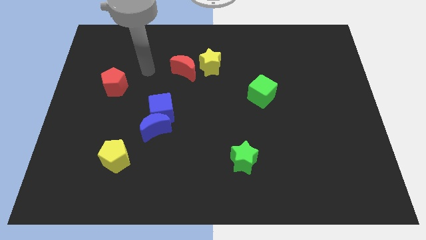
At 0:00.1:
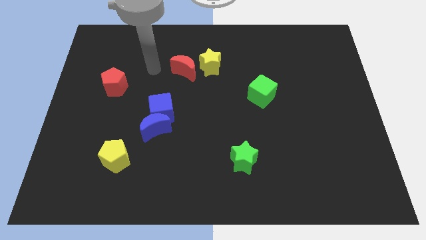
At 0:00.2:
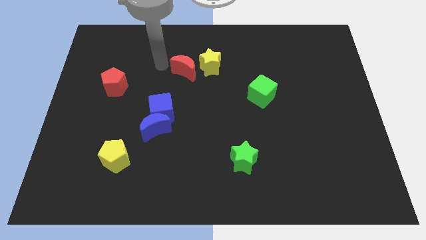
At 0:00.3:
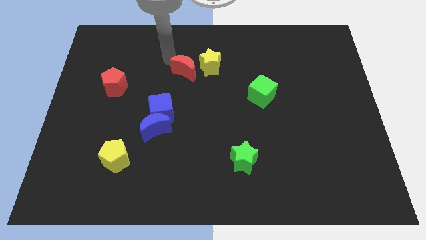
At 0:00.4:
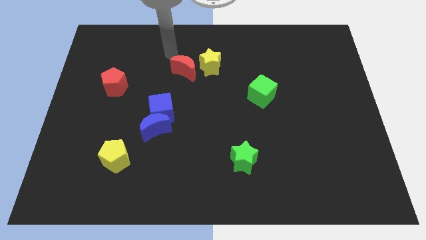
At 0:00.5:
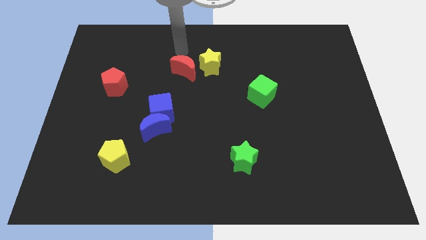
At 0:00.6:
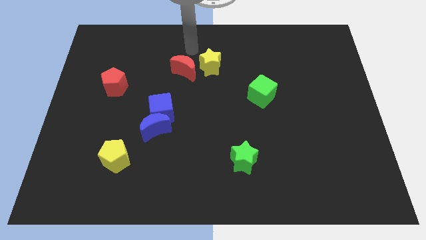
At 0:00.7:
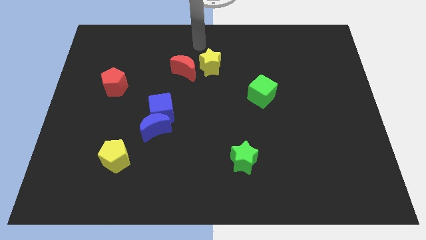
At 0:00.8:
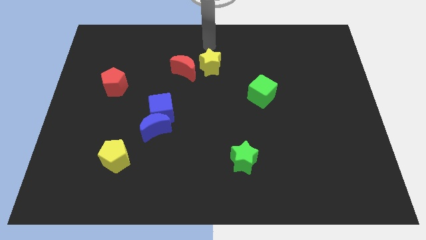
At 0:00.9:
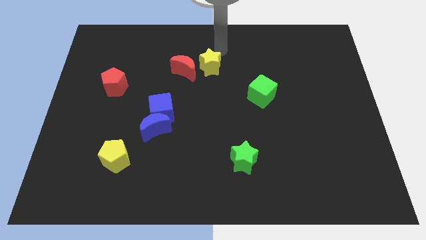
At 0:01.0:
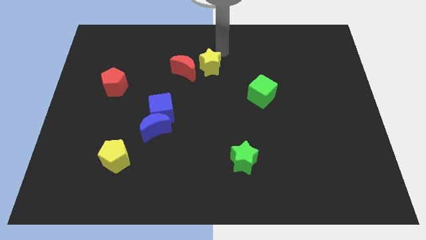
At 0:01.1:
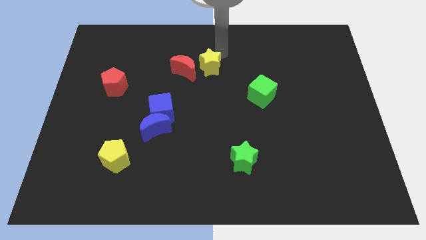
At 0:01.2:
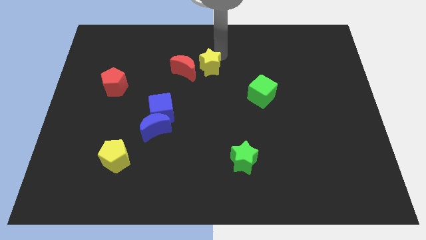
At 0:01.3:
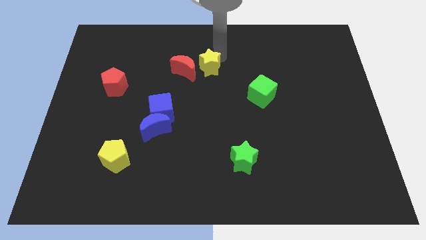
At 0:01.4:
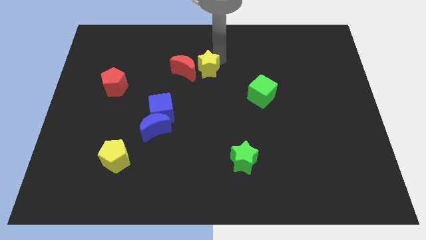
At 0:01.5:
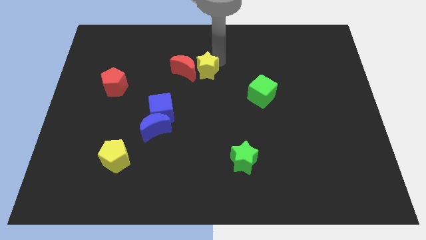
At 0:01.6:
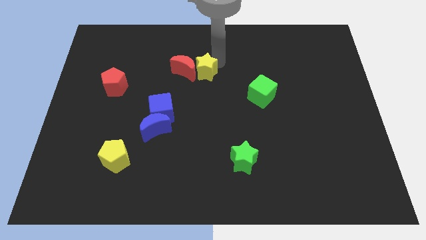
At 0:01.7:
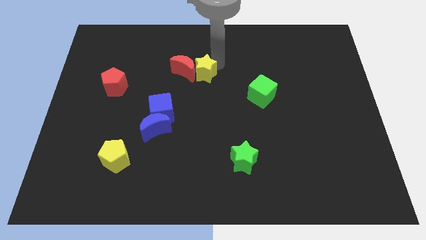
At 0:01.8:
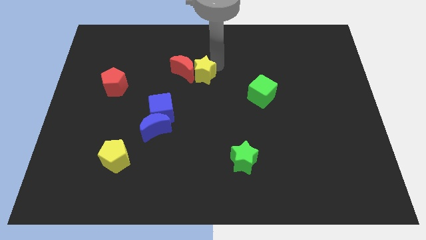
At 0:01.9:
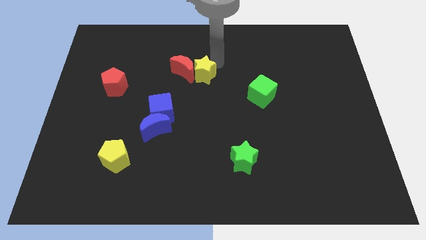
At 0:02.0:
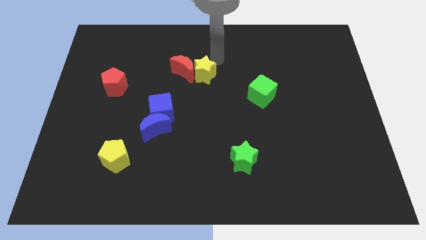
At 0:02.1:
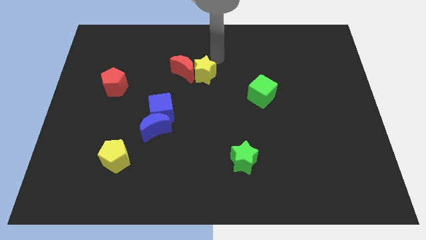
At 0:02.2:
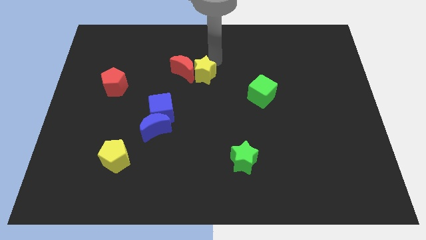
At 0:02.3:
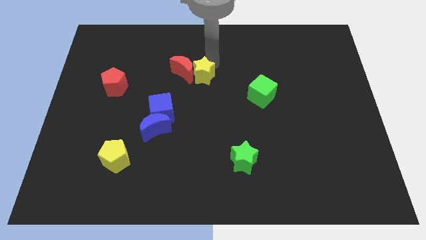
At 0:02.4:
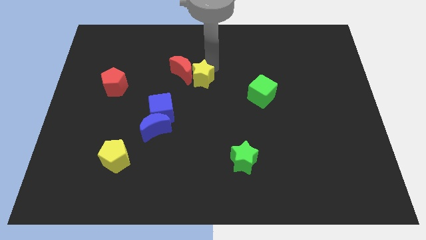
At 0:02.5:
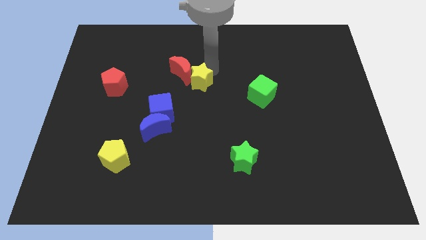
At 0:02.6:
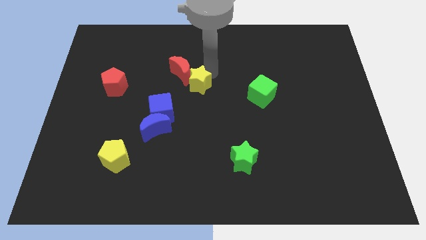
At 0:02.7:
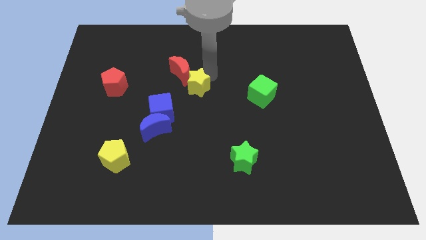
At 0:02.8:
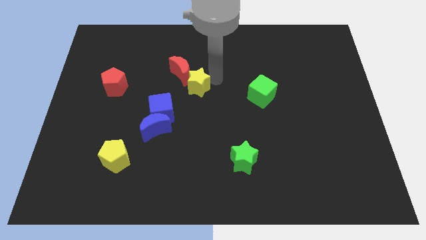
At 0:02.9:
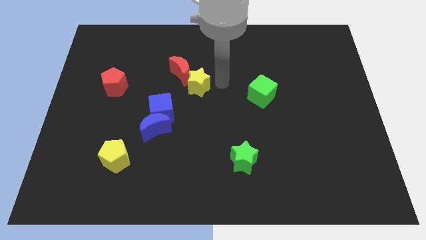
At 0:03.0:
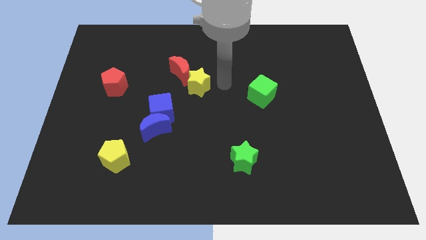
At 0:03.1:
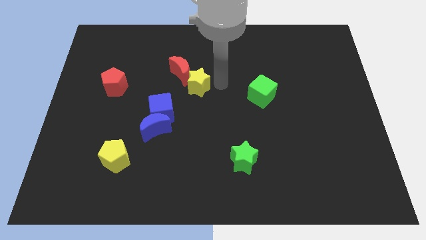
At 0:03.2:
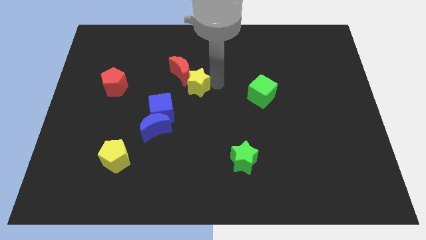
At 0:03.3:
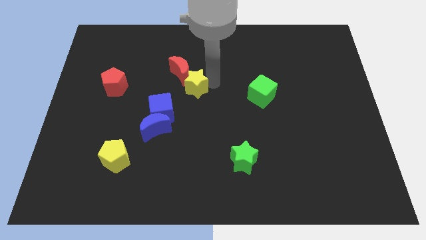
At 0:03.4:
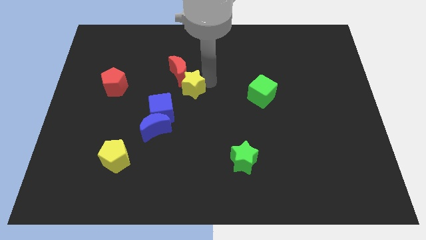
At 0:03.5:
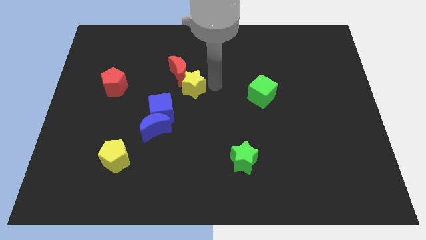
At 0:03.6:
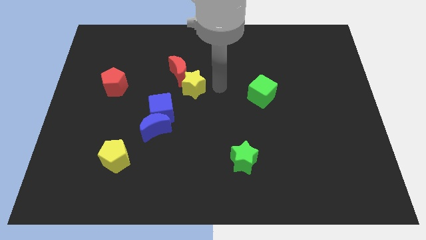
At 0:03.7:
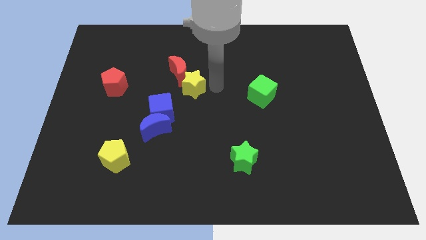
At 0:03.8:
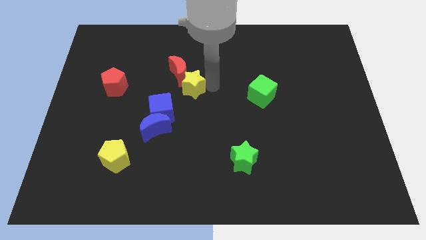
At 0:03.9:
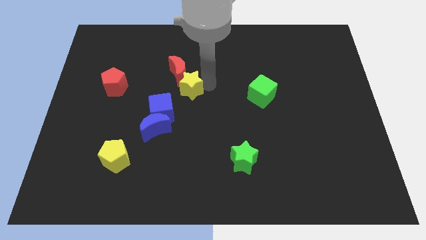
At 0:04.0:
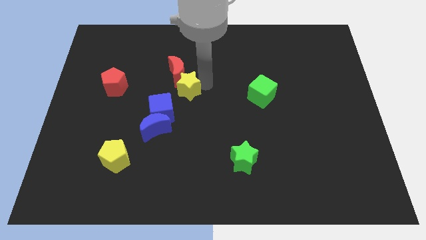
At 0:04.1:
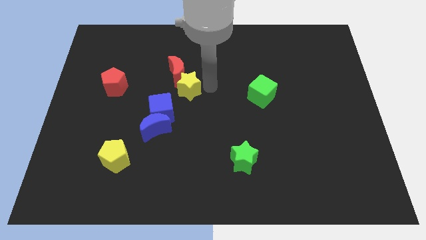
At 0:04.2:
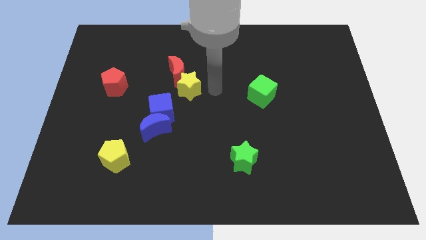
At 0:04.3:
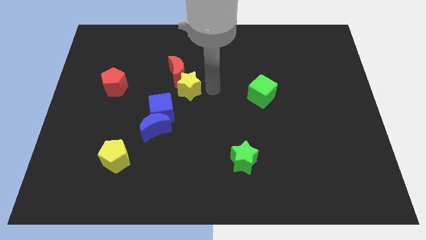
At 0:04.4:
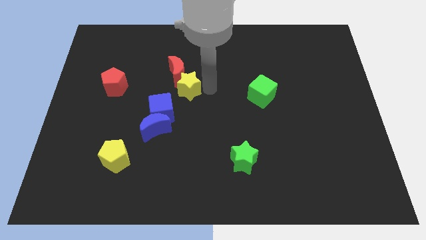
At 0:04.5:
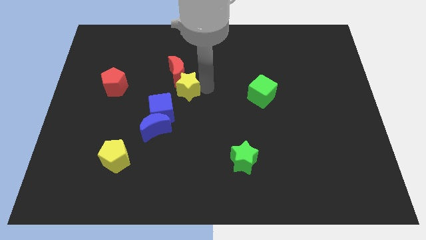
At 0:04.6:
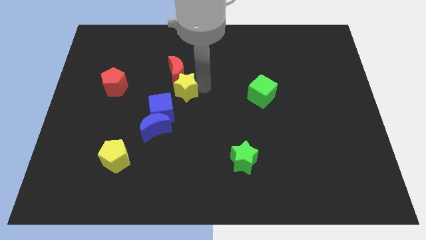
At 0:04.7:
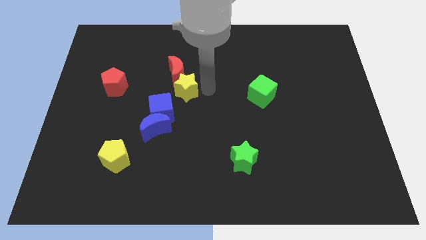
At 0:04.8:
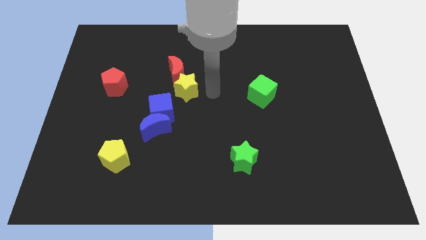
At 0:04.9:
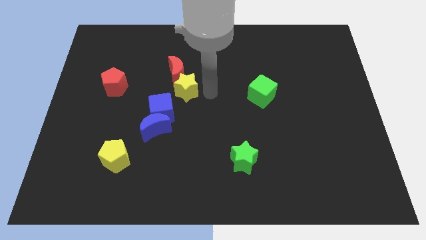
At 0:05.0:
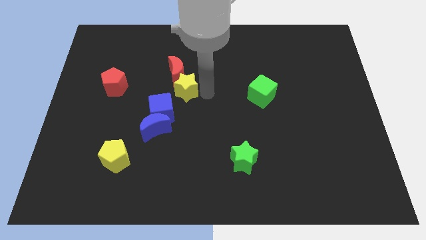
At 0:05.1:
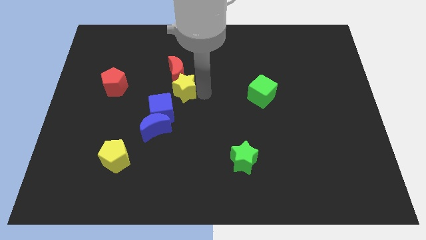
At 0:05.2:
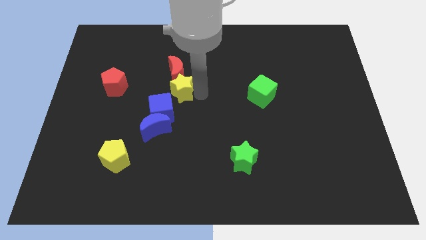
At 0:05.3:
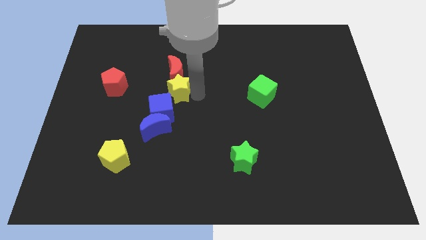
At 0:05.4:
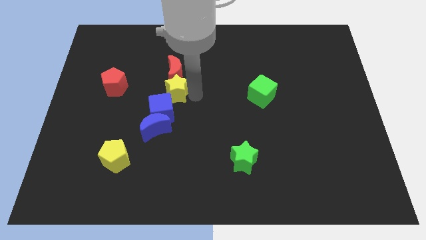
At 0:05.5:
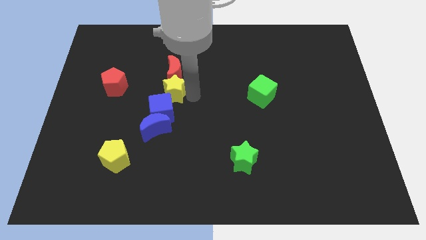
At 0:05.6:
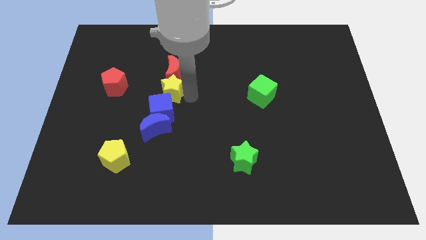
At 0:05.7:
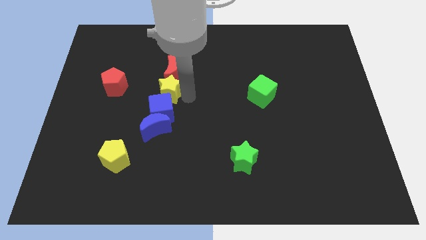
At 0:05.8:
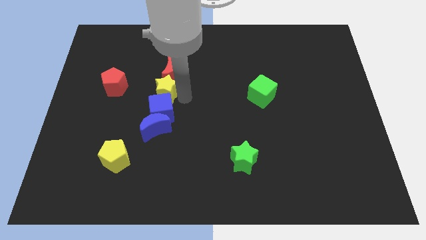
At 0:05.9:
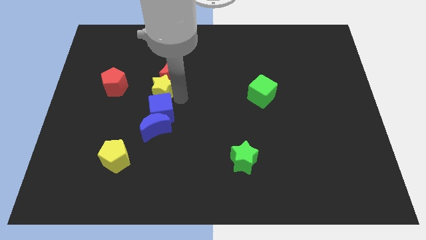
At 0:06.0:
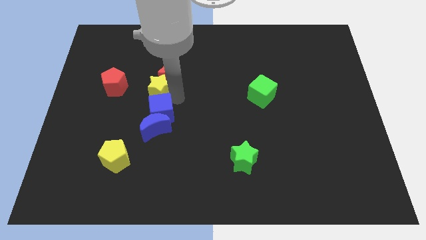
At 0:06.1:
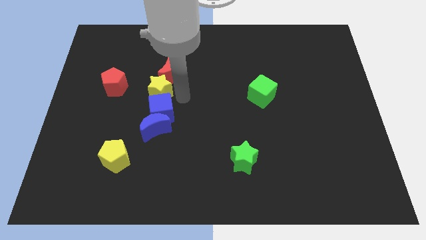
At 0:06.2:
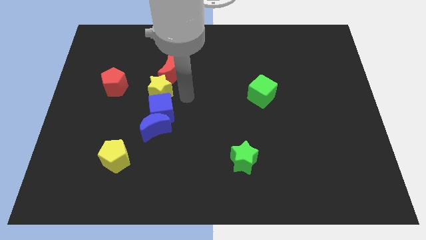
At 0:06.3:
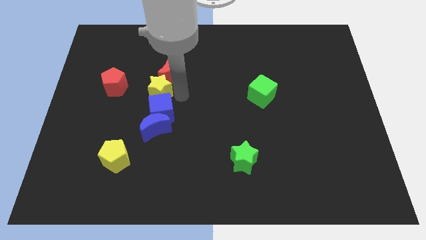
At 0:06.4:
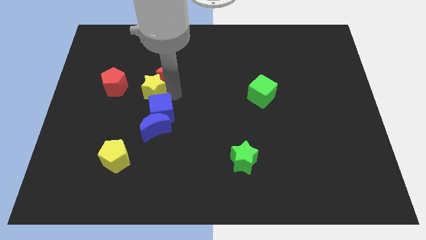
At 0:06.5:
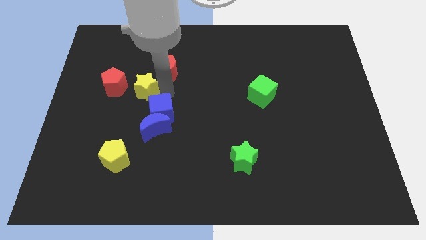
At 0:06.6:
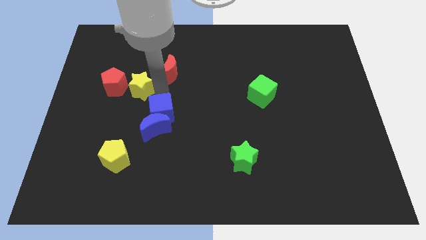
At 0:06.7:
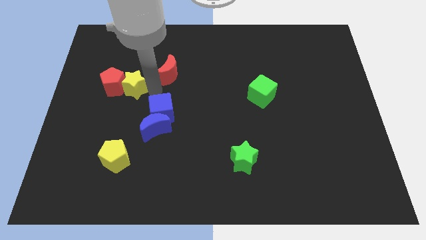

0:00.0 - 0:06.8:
move the yellow star next to the red pentagon

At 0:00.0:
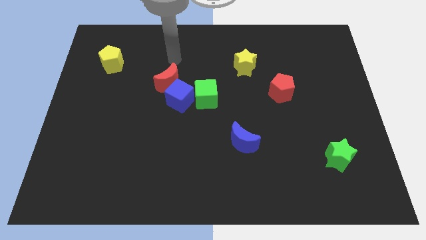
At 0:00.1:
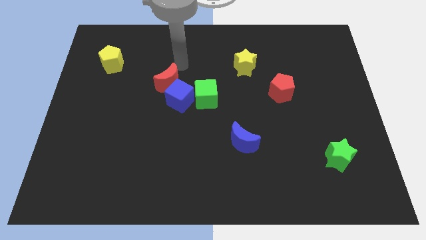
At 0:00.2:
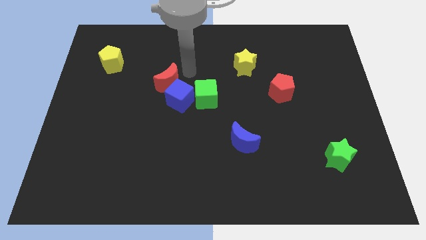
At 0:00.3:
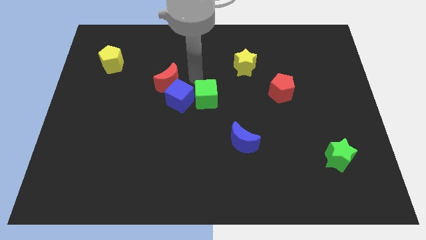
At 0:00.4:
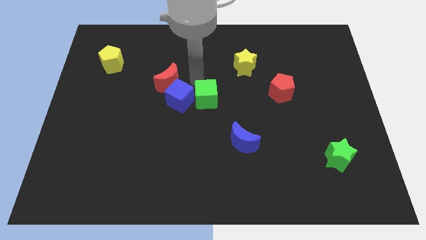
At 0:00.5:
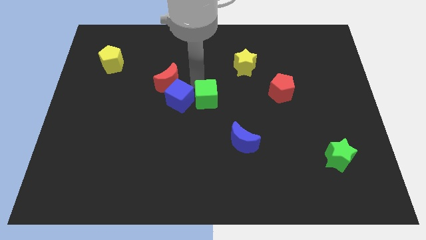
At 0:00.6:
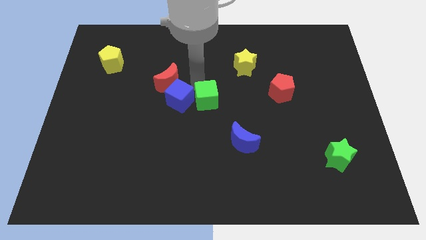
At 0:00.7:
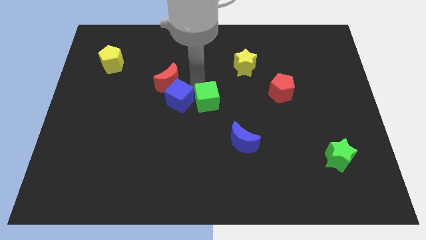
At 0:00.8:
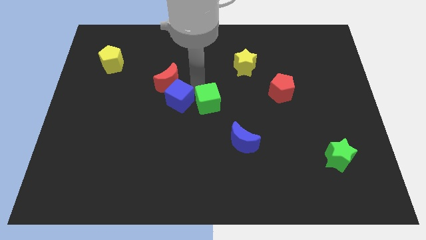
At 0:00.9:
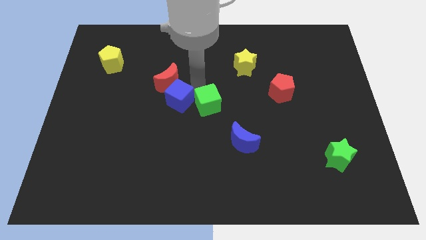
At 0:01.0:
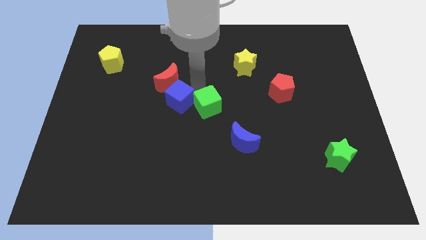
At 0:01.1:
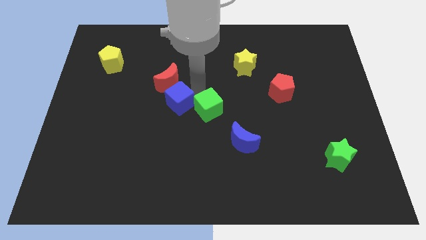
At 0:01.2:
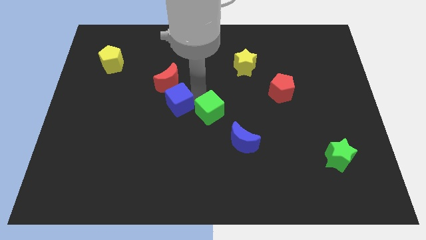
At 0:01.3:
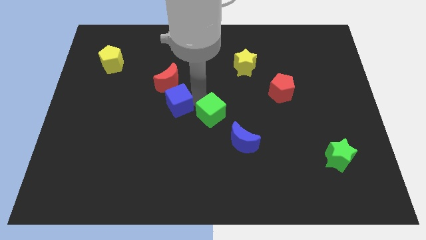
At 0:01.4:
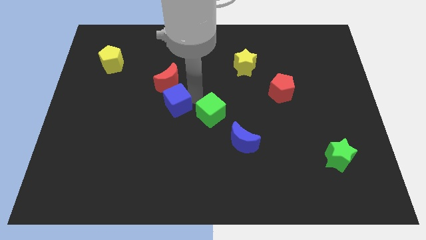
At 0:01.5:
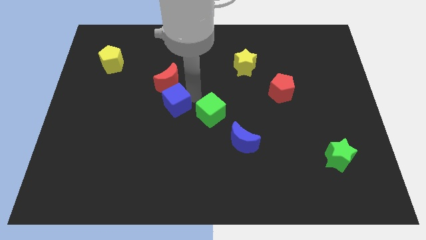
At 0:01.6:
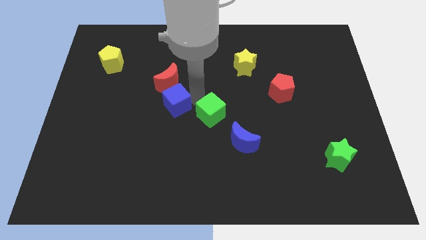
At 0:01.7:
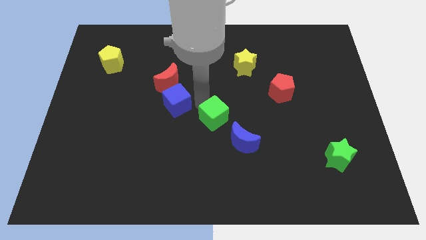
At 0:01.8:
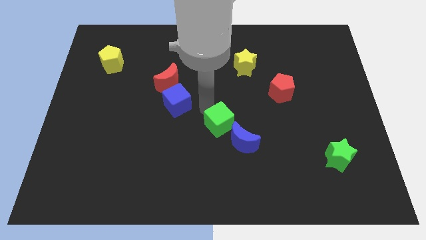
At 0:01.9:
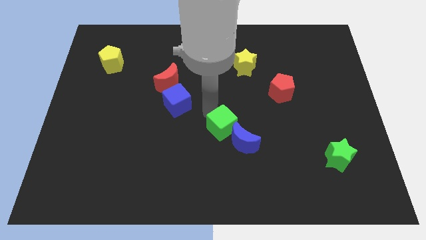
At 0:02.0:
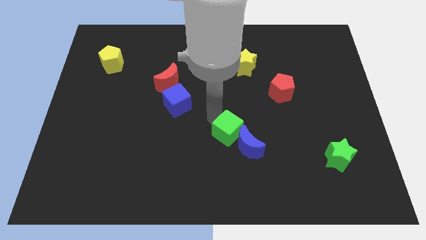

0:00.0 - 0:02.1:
push the green cube to the blue moon
